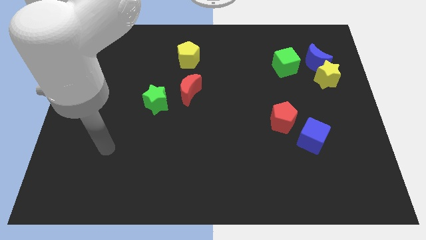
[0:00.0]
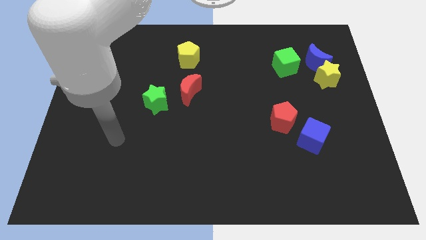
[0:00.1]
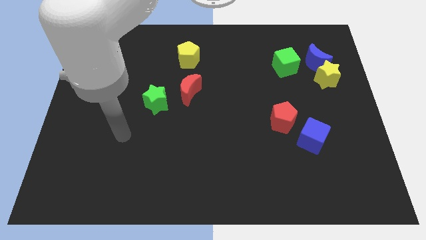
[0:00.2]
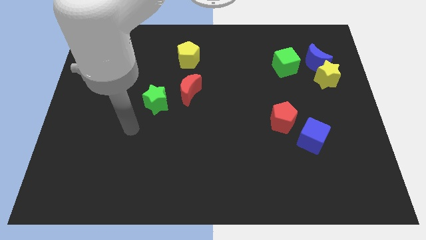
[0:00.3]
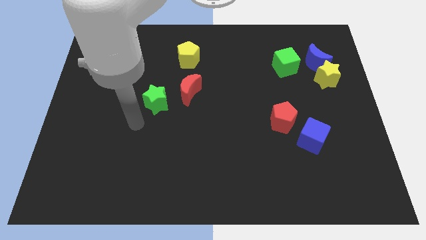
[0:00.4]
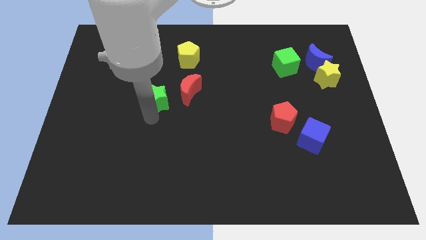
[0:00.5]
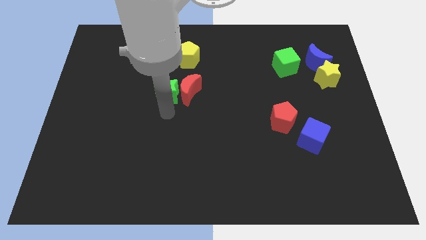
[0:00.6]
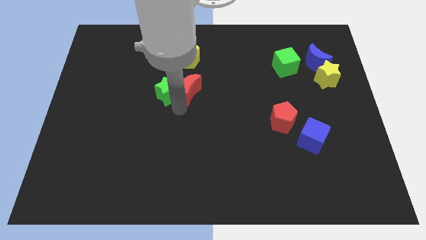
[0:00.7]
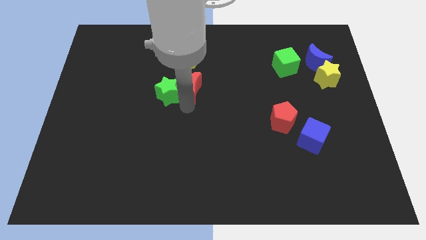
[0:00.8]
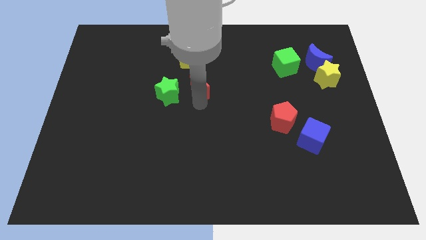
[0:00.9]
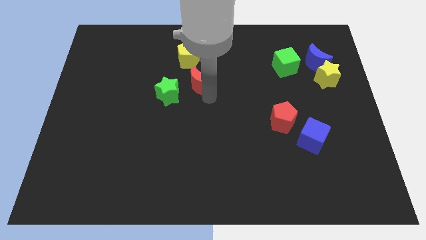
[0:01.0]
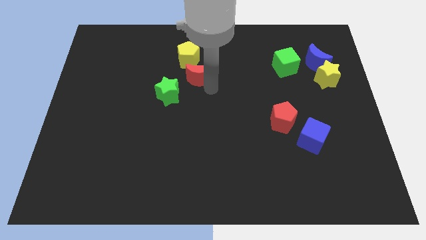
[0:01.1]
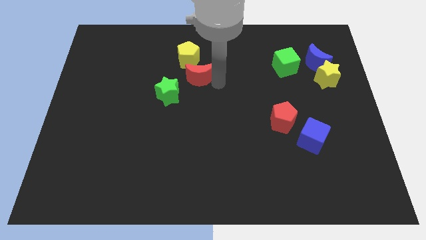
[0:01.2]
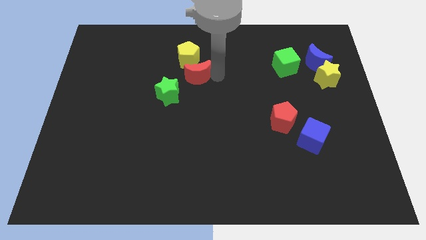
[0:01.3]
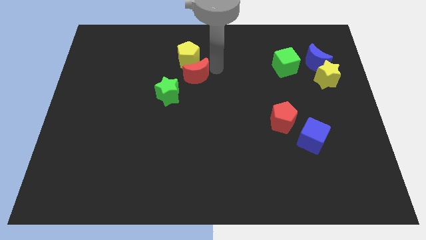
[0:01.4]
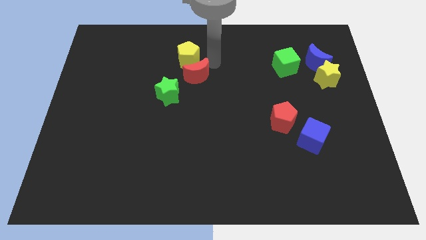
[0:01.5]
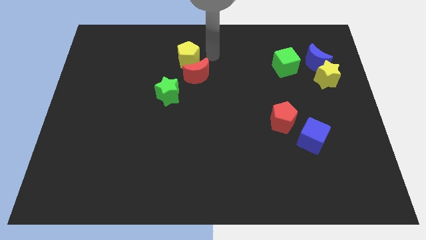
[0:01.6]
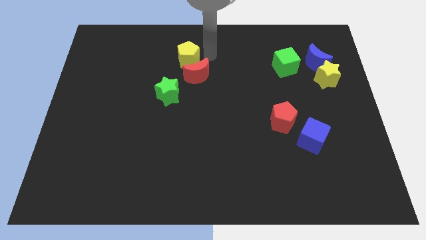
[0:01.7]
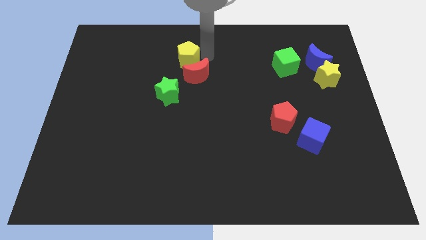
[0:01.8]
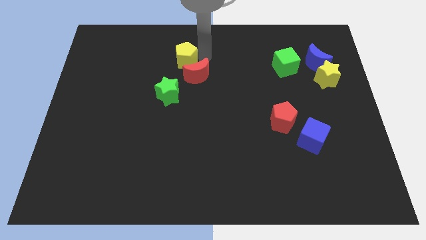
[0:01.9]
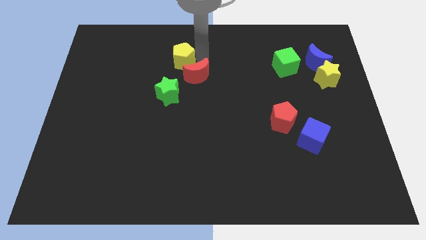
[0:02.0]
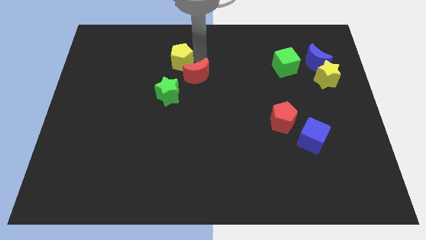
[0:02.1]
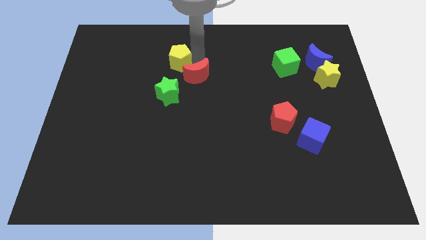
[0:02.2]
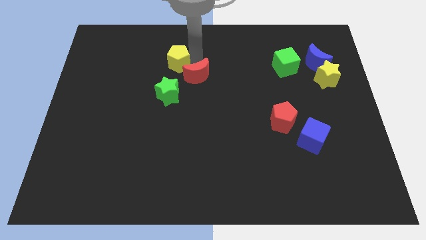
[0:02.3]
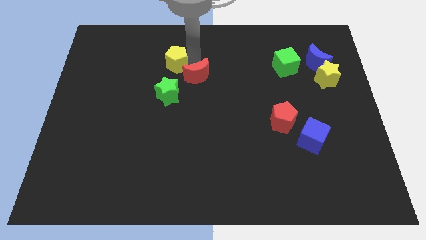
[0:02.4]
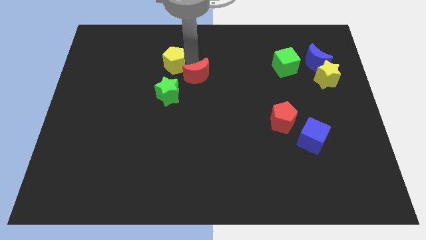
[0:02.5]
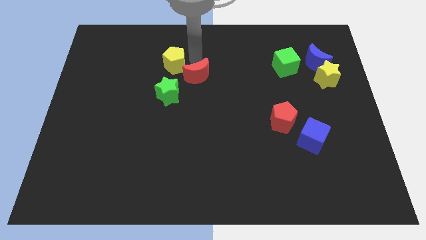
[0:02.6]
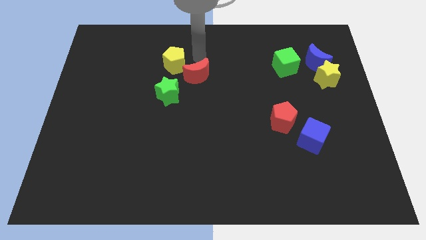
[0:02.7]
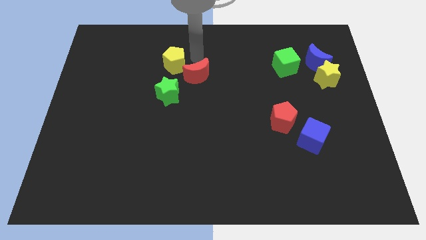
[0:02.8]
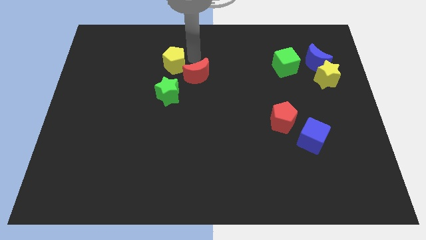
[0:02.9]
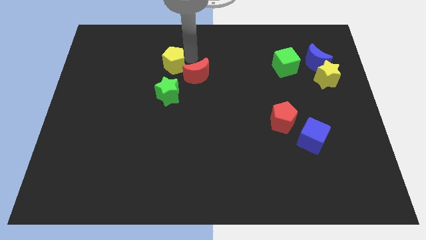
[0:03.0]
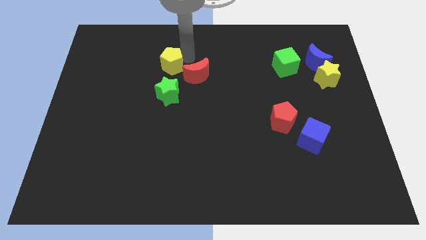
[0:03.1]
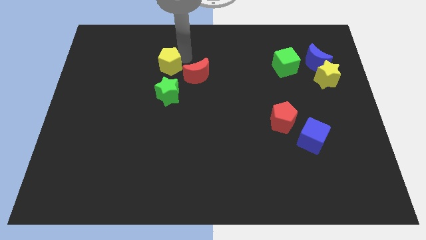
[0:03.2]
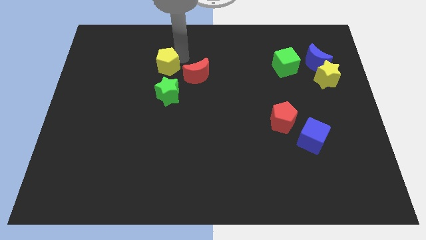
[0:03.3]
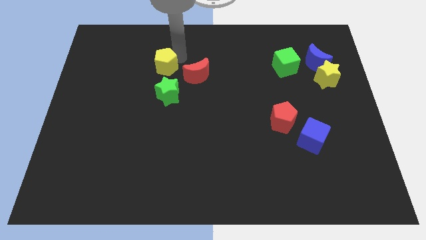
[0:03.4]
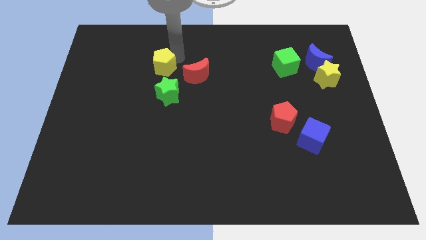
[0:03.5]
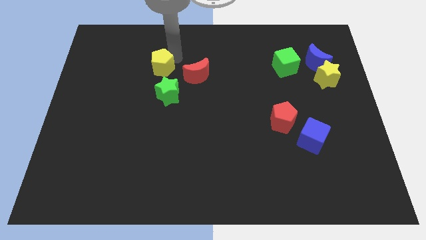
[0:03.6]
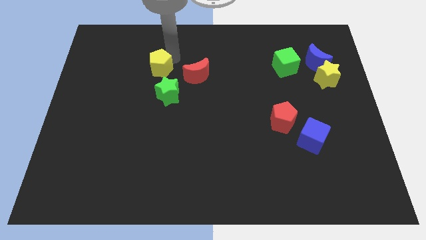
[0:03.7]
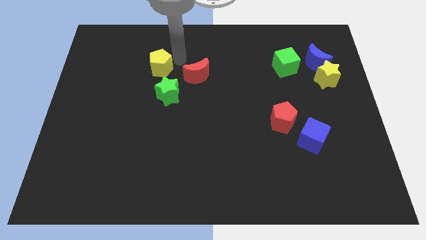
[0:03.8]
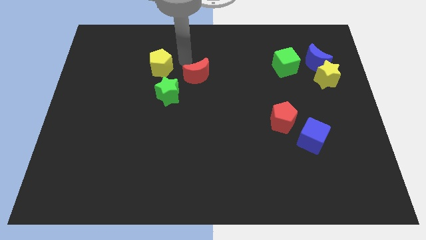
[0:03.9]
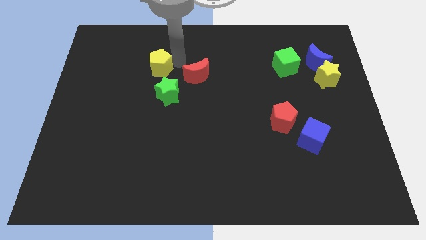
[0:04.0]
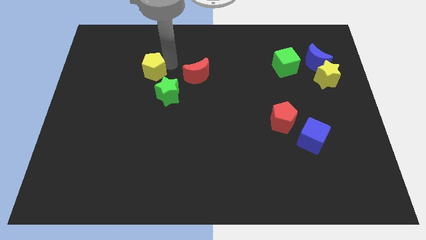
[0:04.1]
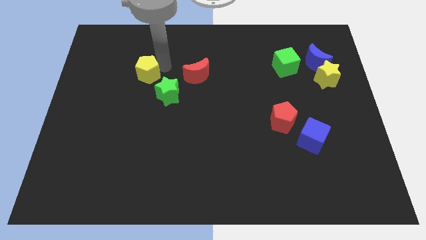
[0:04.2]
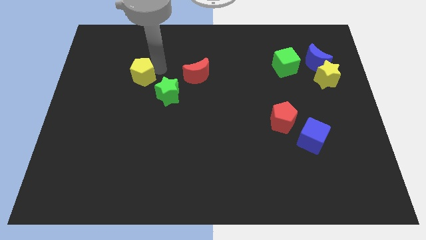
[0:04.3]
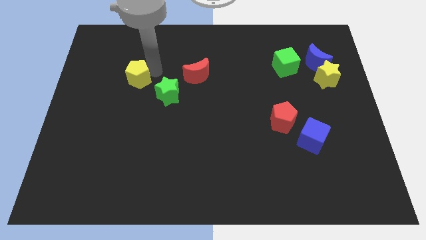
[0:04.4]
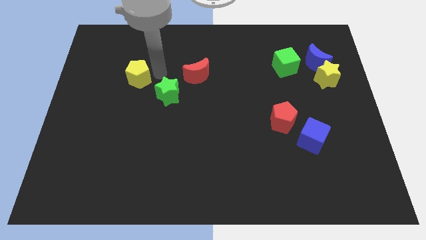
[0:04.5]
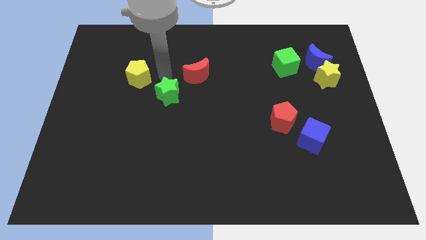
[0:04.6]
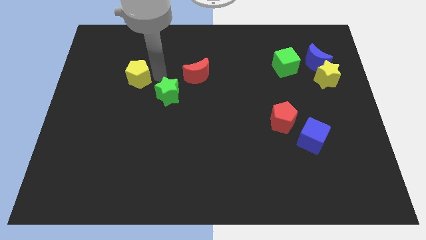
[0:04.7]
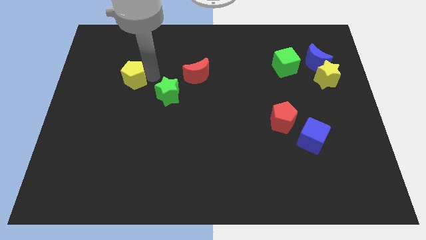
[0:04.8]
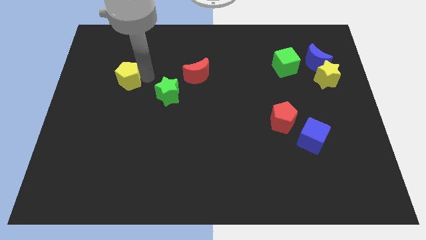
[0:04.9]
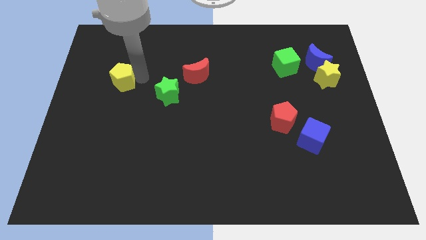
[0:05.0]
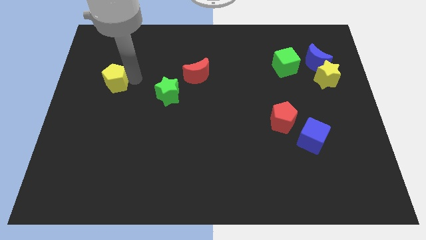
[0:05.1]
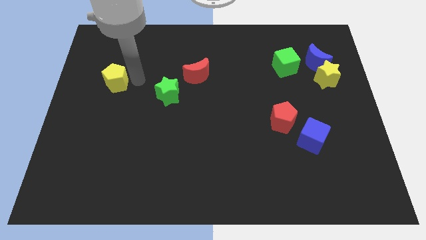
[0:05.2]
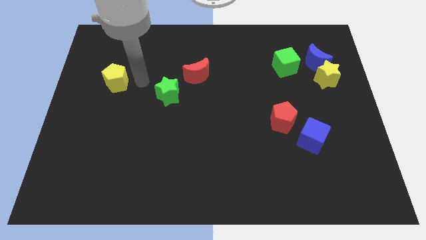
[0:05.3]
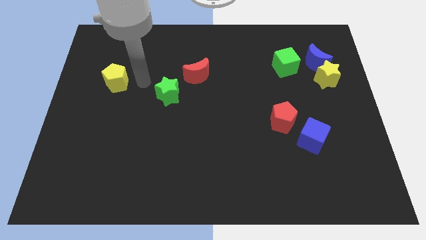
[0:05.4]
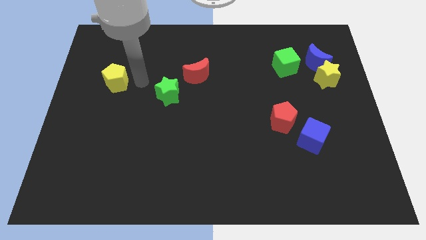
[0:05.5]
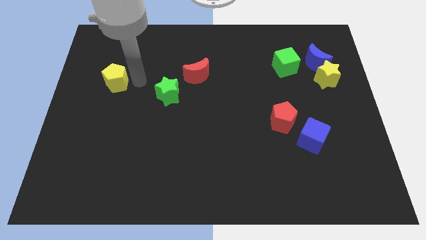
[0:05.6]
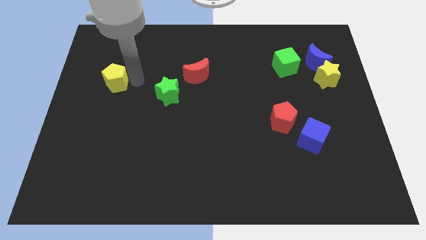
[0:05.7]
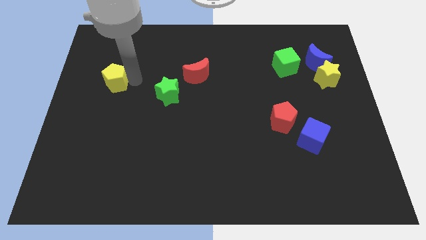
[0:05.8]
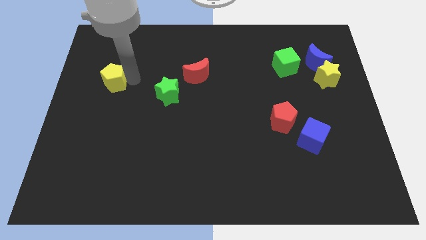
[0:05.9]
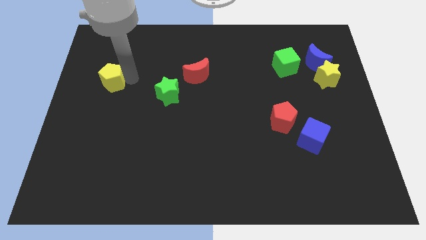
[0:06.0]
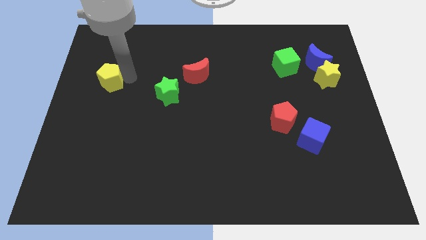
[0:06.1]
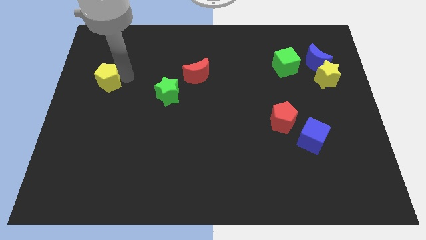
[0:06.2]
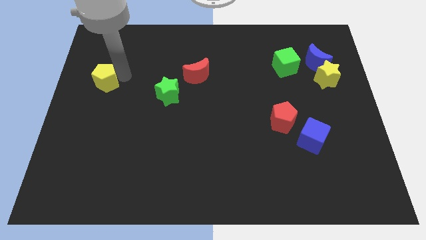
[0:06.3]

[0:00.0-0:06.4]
put the yellow pentagon to the left side
